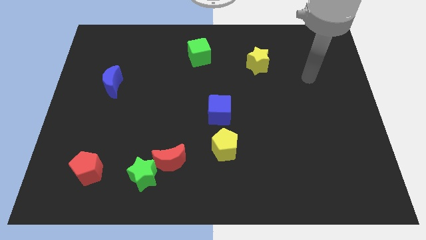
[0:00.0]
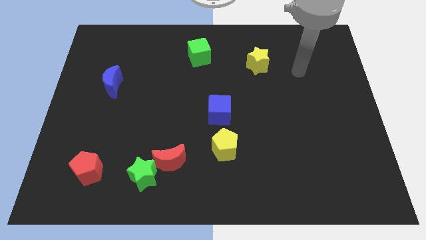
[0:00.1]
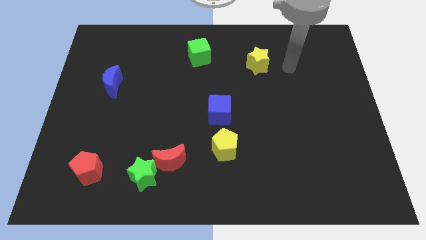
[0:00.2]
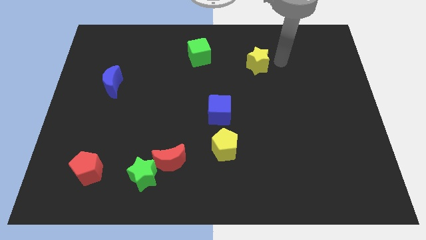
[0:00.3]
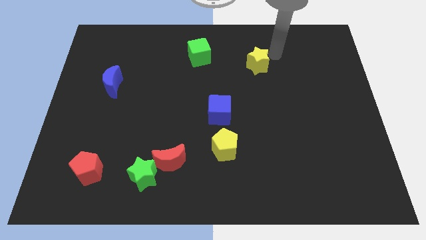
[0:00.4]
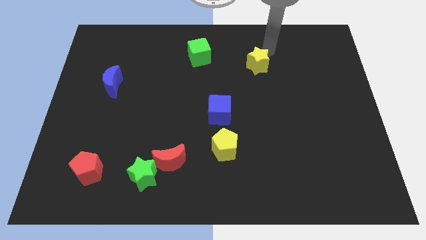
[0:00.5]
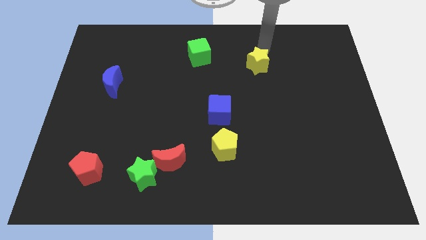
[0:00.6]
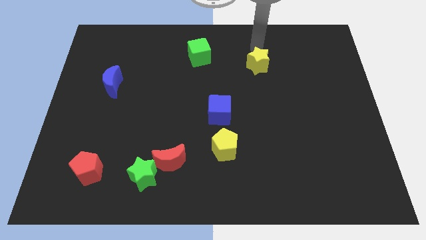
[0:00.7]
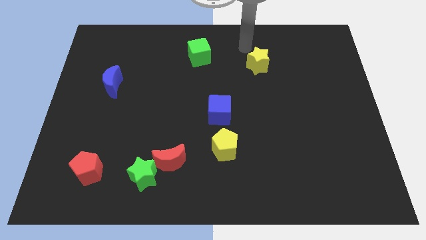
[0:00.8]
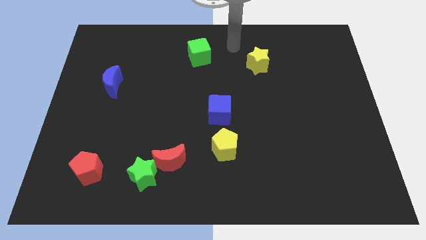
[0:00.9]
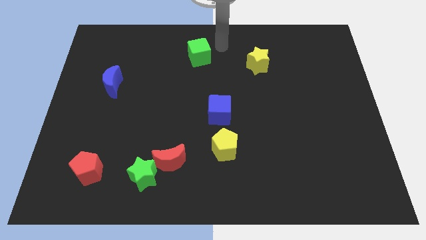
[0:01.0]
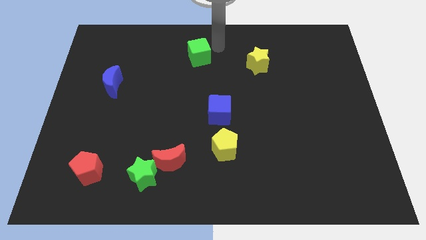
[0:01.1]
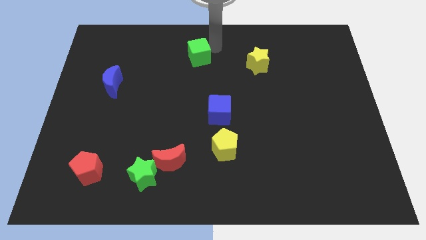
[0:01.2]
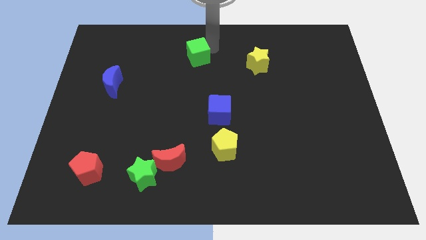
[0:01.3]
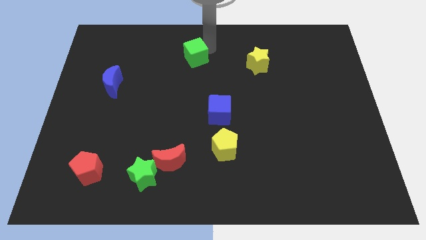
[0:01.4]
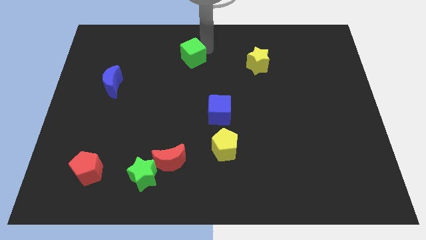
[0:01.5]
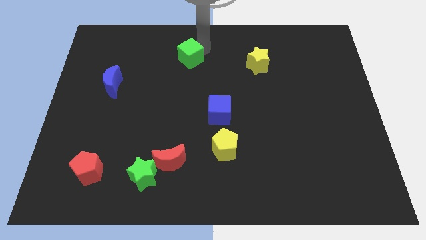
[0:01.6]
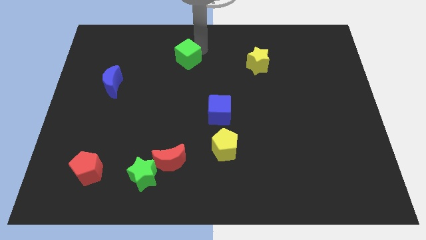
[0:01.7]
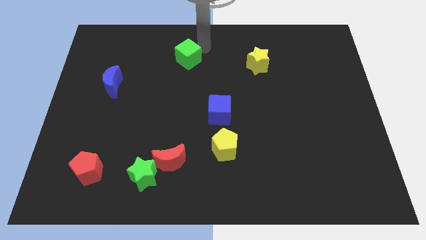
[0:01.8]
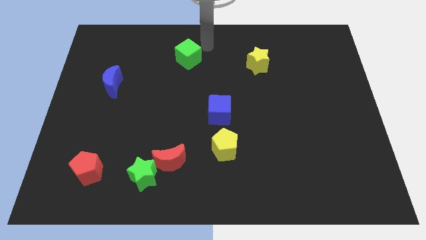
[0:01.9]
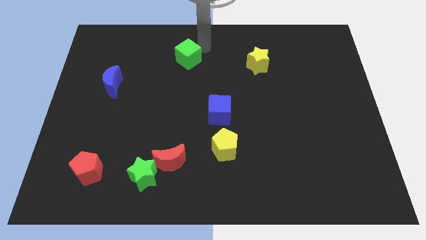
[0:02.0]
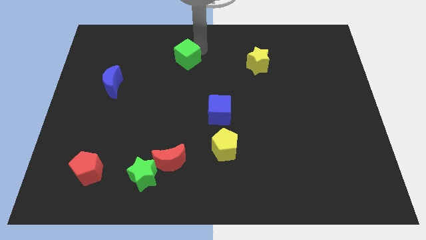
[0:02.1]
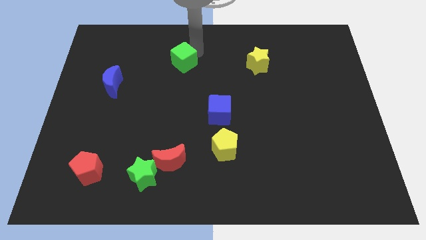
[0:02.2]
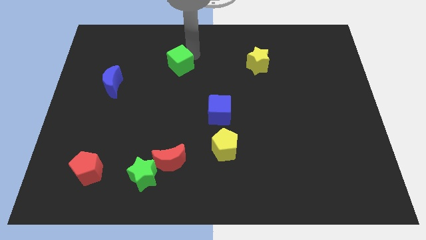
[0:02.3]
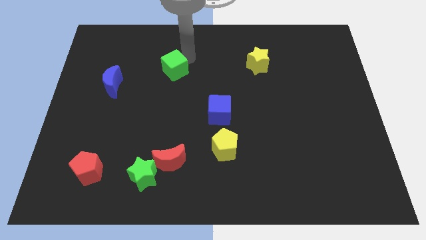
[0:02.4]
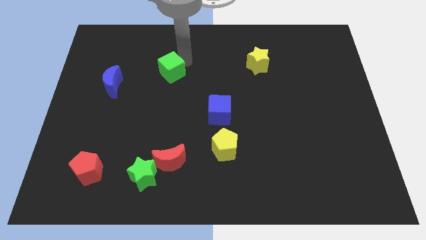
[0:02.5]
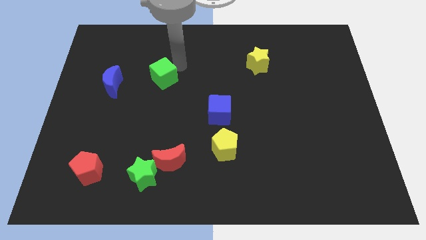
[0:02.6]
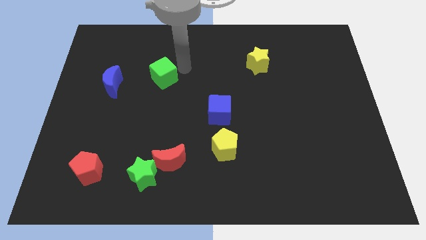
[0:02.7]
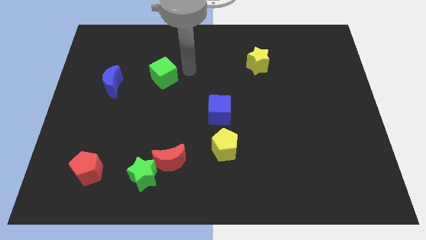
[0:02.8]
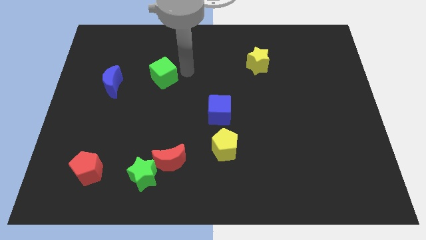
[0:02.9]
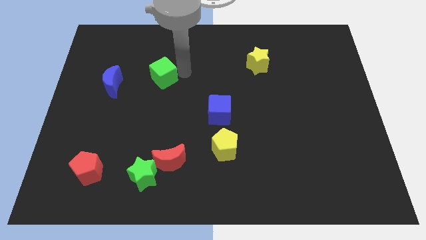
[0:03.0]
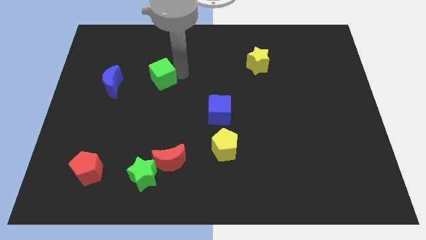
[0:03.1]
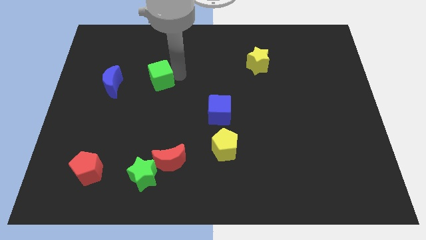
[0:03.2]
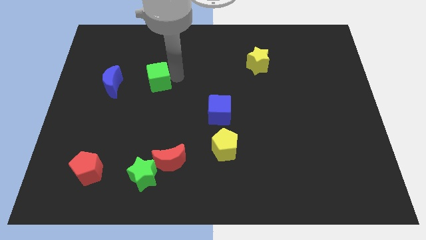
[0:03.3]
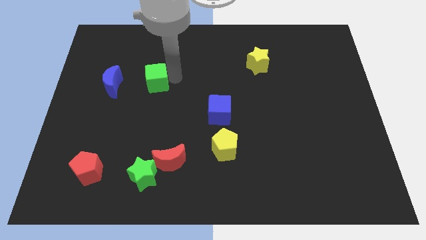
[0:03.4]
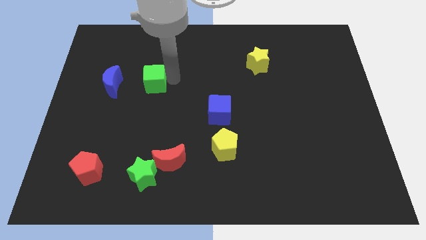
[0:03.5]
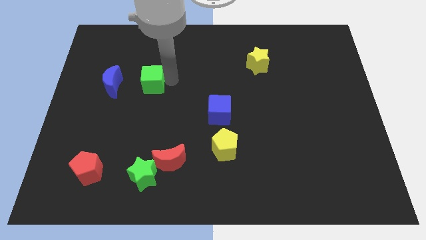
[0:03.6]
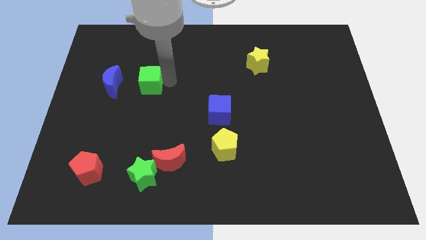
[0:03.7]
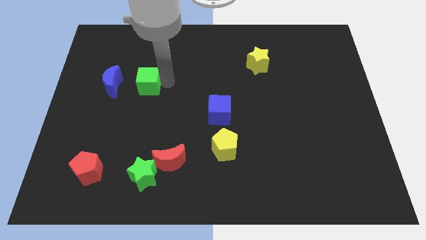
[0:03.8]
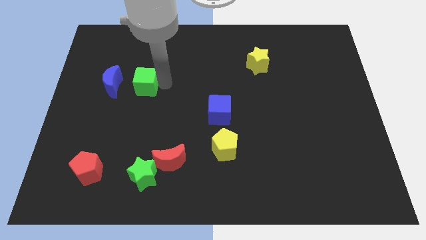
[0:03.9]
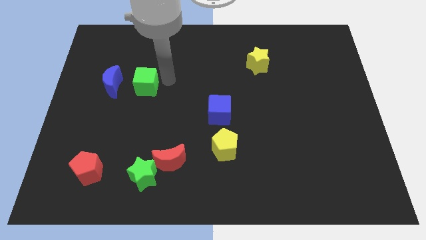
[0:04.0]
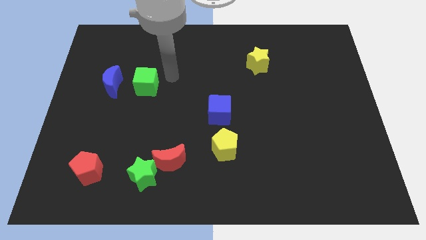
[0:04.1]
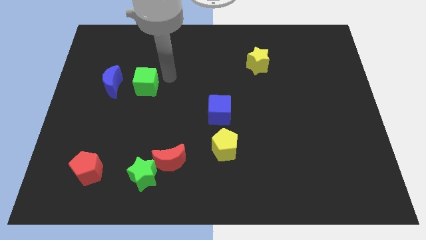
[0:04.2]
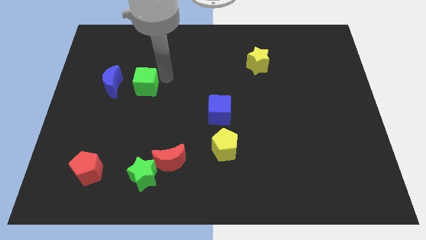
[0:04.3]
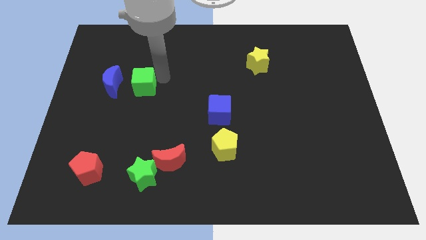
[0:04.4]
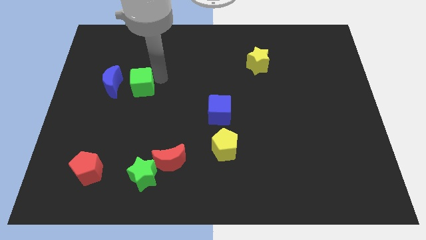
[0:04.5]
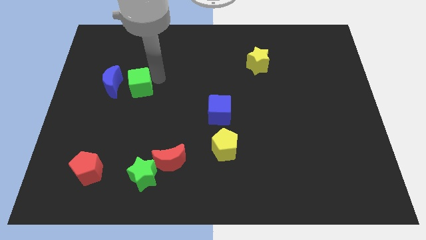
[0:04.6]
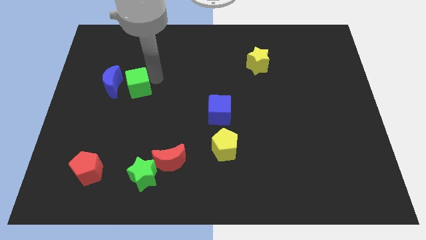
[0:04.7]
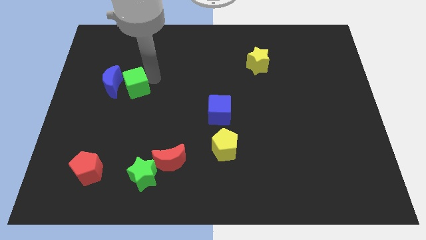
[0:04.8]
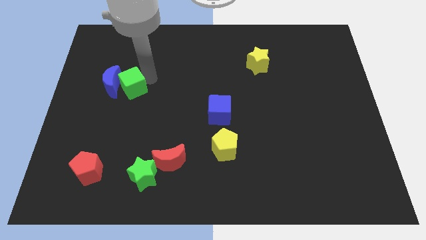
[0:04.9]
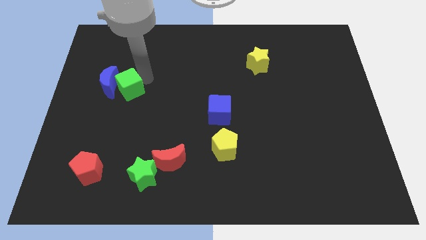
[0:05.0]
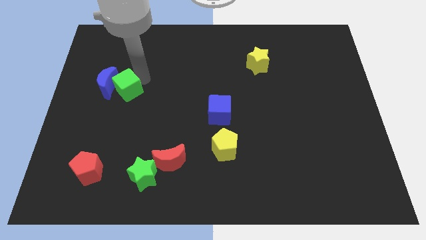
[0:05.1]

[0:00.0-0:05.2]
slide the green cube down and to the left

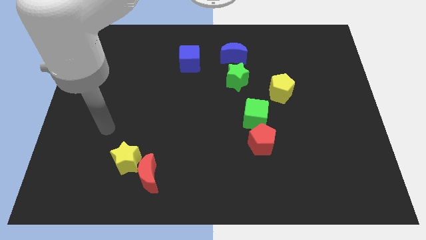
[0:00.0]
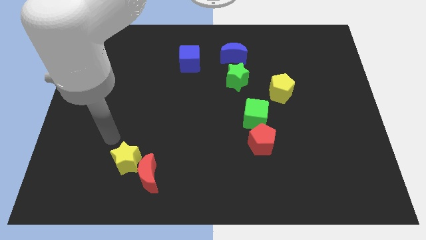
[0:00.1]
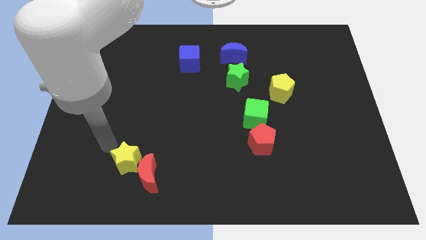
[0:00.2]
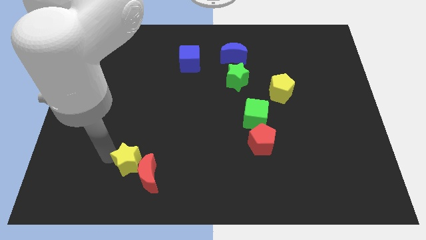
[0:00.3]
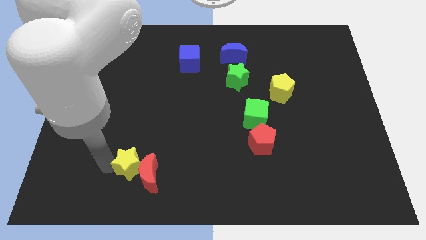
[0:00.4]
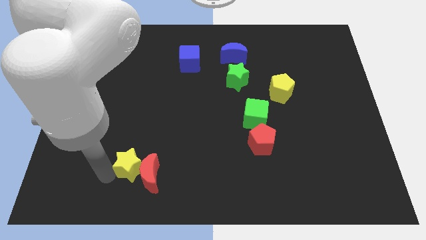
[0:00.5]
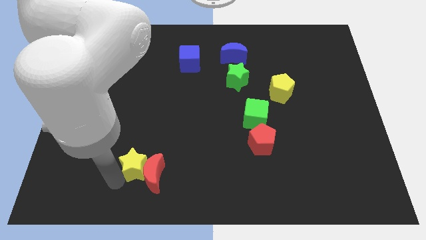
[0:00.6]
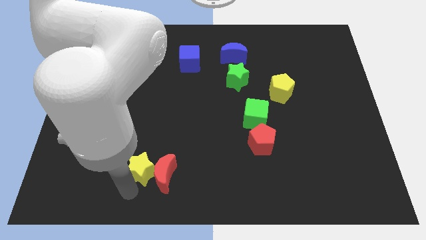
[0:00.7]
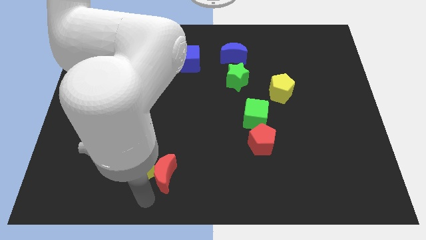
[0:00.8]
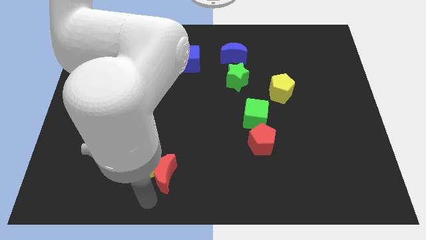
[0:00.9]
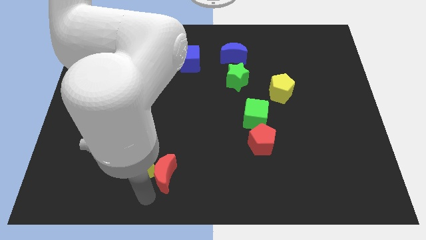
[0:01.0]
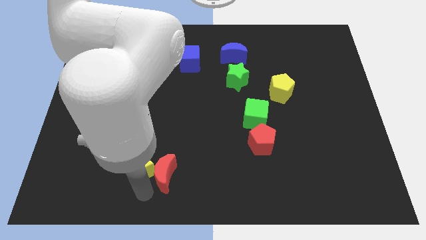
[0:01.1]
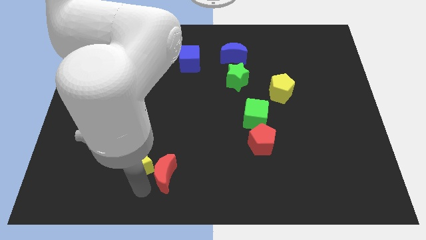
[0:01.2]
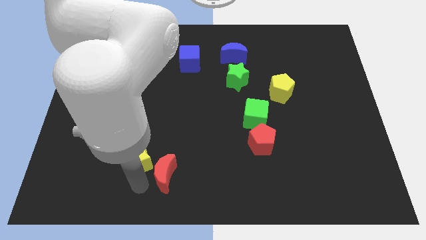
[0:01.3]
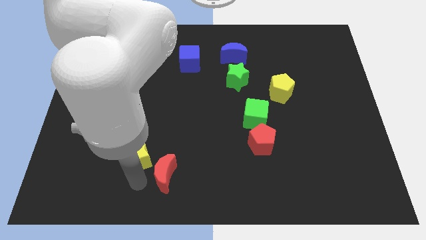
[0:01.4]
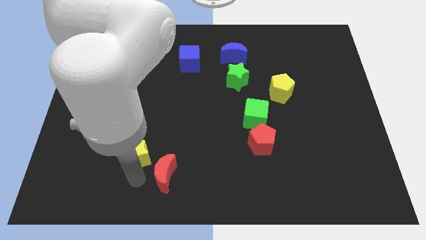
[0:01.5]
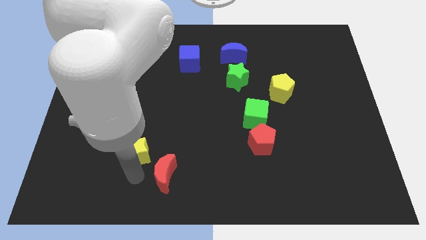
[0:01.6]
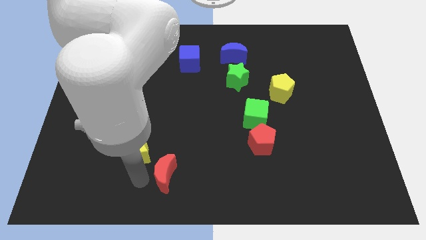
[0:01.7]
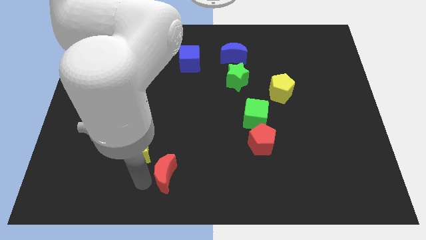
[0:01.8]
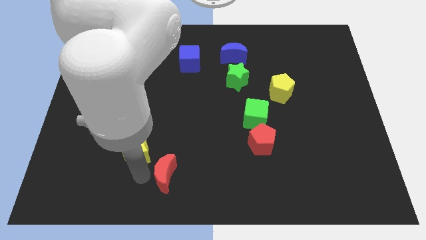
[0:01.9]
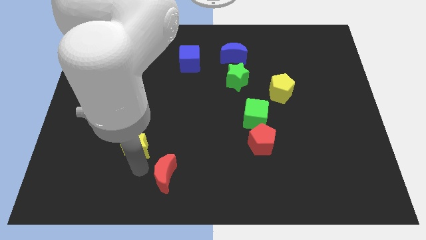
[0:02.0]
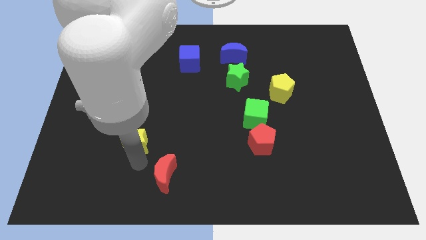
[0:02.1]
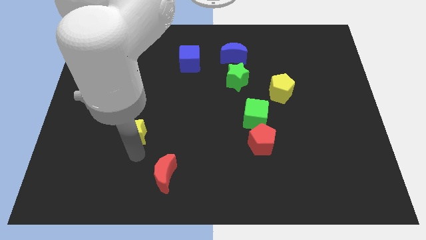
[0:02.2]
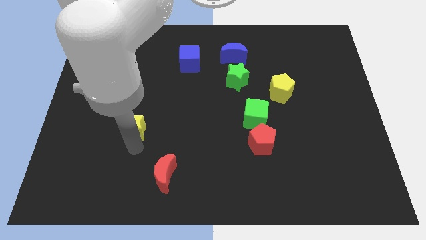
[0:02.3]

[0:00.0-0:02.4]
slightly slide the yellow star upwards

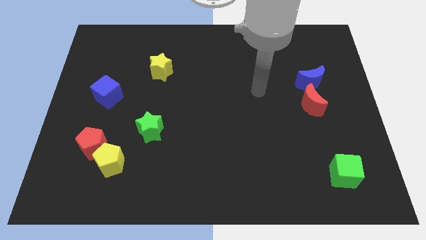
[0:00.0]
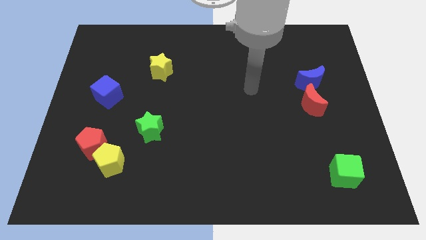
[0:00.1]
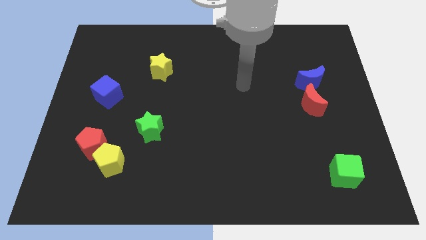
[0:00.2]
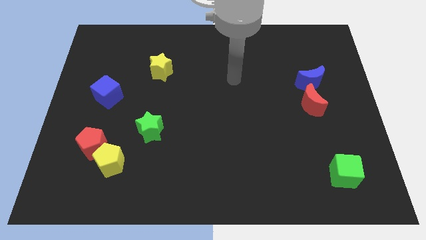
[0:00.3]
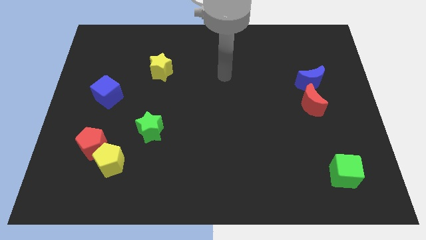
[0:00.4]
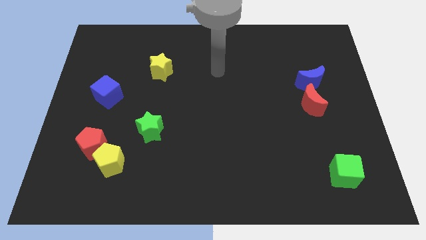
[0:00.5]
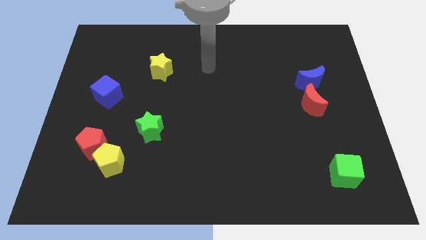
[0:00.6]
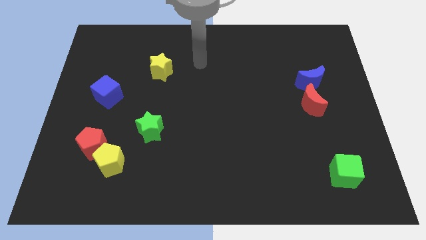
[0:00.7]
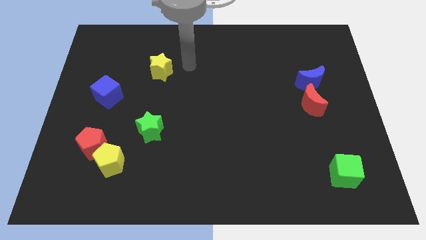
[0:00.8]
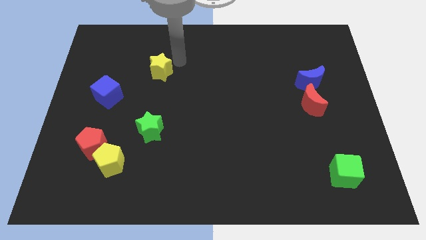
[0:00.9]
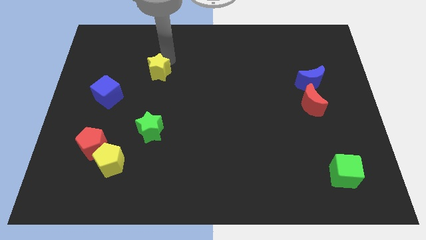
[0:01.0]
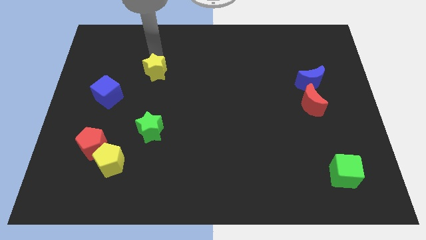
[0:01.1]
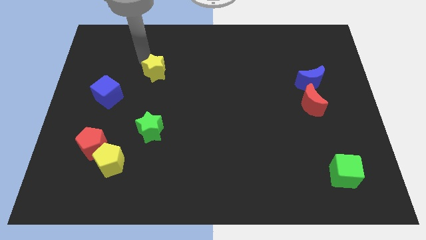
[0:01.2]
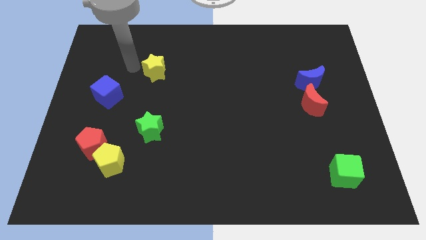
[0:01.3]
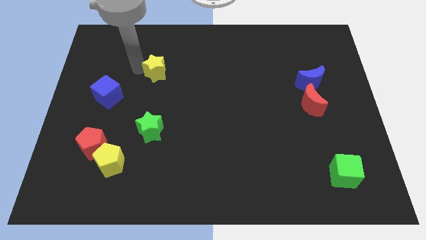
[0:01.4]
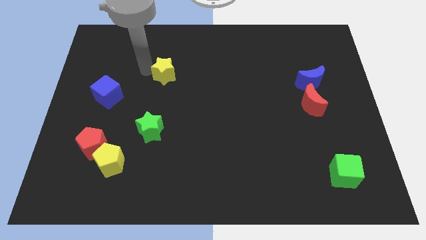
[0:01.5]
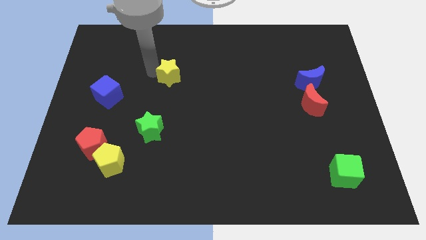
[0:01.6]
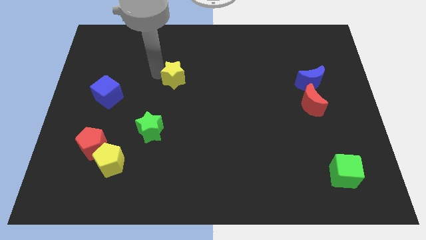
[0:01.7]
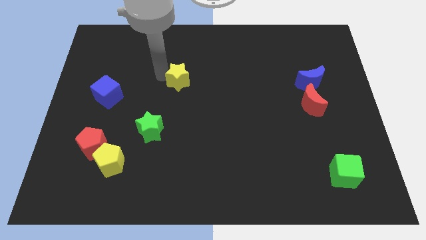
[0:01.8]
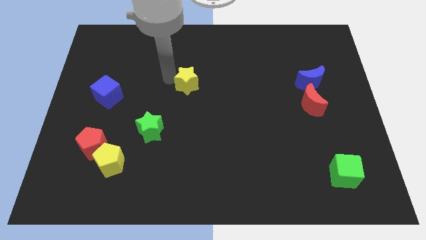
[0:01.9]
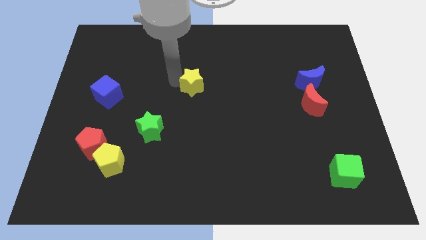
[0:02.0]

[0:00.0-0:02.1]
slightly push the yellow star right
